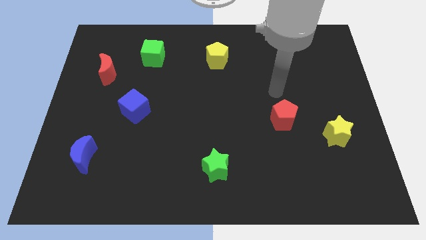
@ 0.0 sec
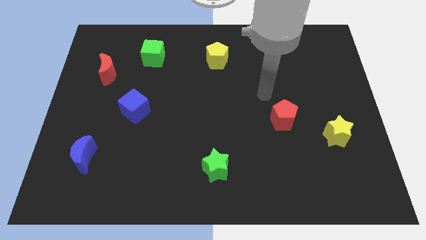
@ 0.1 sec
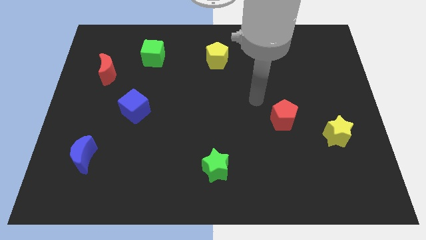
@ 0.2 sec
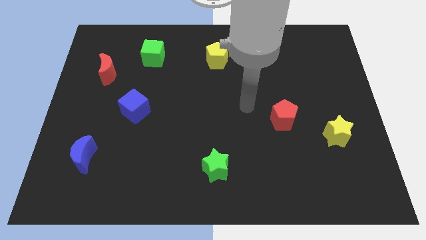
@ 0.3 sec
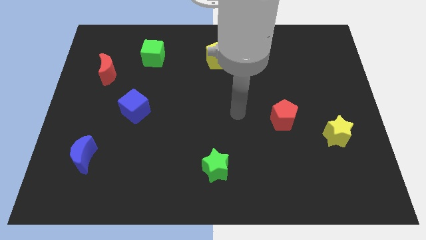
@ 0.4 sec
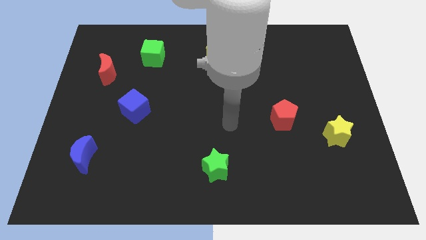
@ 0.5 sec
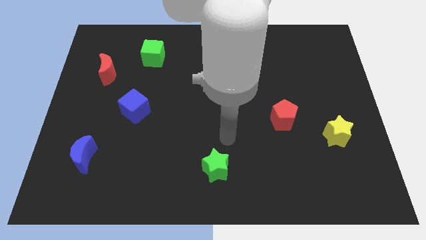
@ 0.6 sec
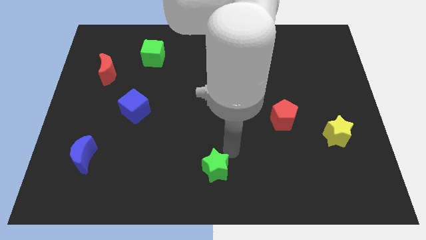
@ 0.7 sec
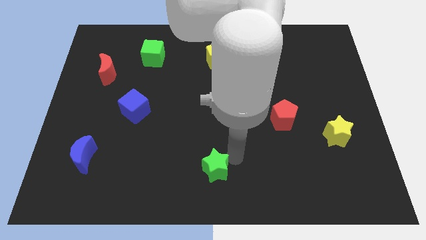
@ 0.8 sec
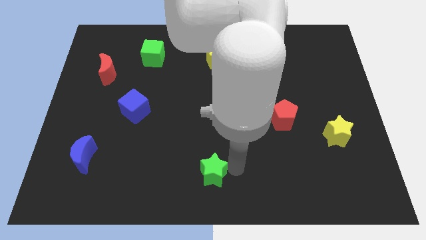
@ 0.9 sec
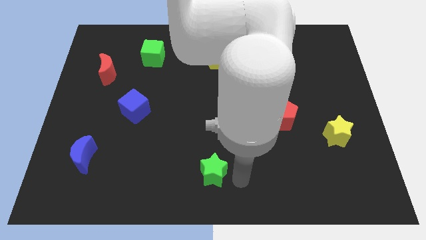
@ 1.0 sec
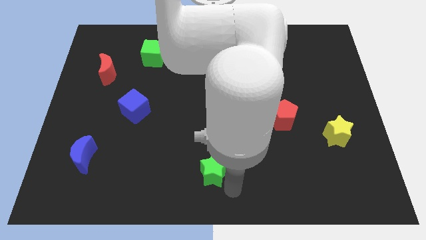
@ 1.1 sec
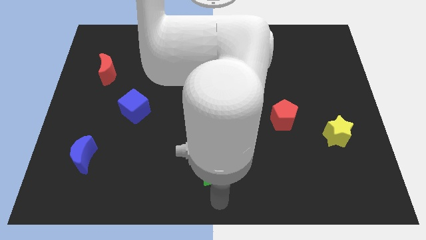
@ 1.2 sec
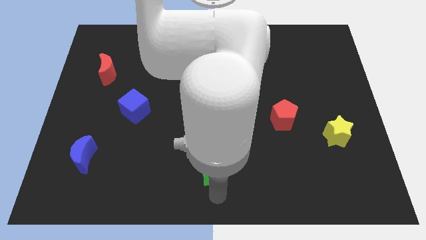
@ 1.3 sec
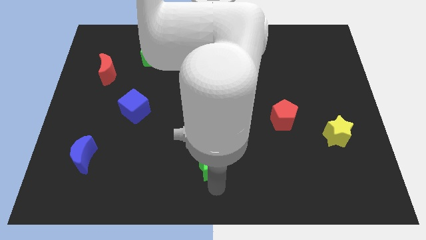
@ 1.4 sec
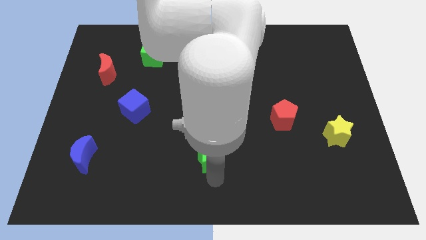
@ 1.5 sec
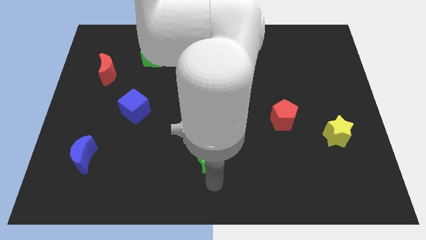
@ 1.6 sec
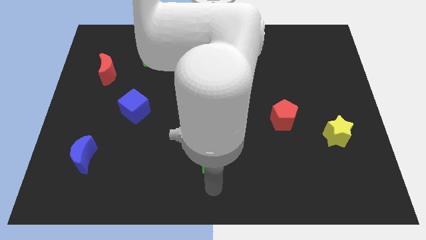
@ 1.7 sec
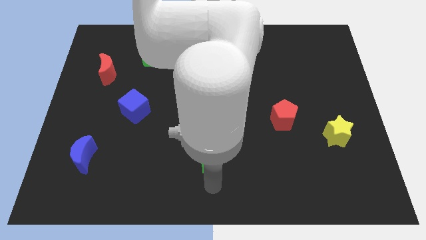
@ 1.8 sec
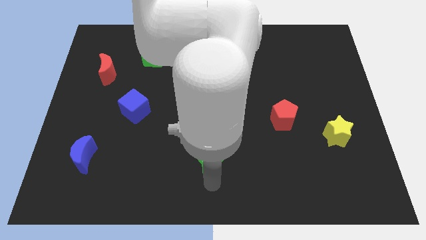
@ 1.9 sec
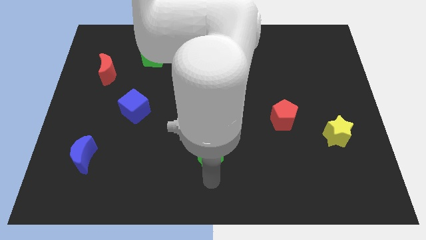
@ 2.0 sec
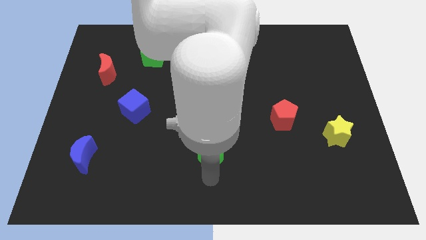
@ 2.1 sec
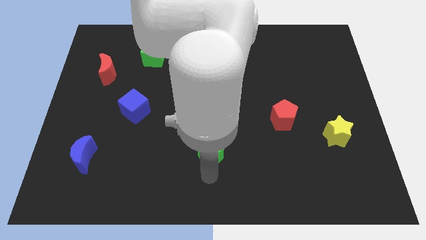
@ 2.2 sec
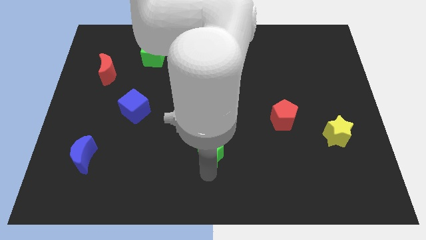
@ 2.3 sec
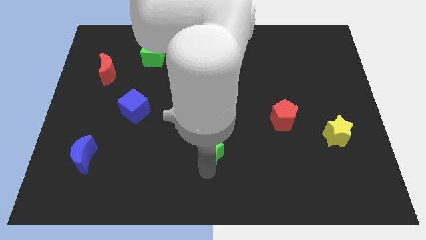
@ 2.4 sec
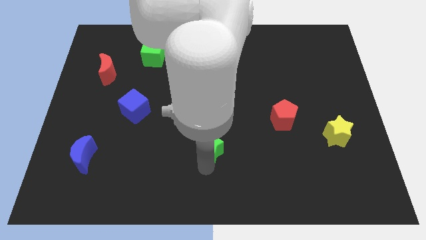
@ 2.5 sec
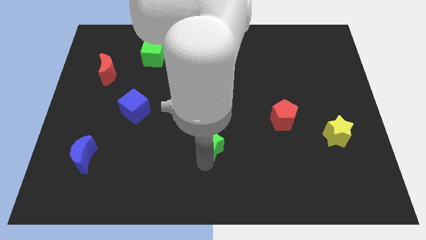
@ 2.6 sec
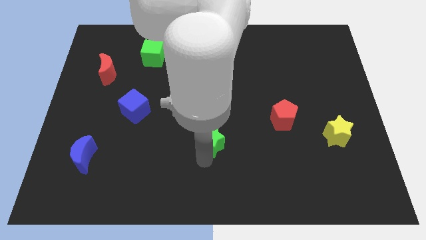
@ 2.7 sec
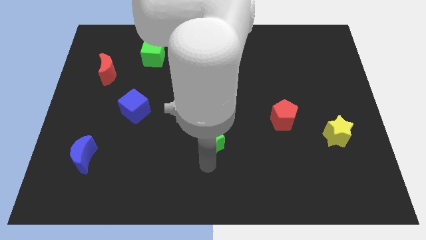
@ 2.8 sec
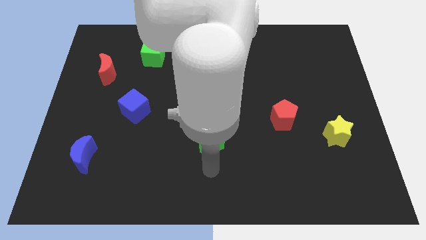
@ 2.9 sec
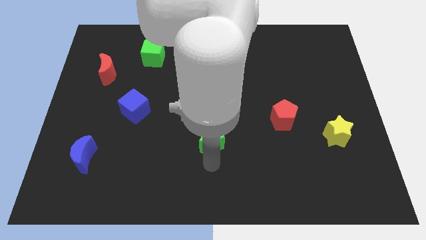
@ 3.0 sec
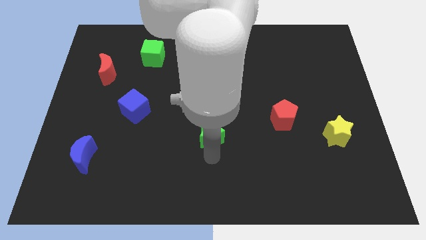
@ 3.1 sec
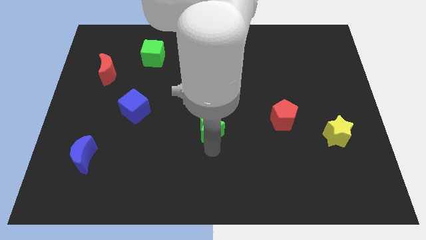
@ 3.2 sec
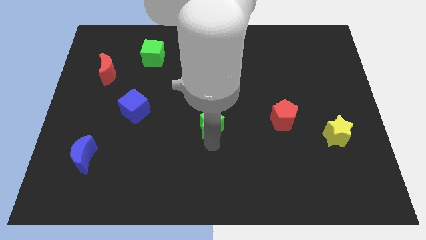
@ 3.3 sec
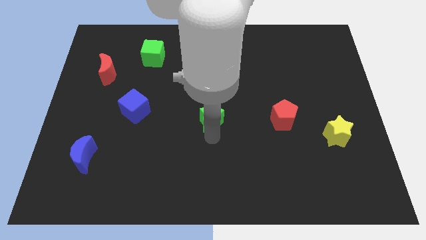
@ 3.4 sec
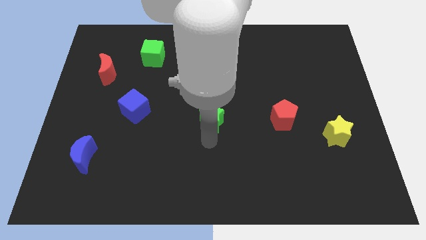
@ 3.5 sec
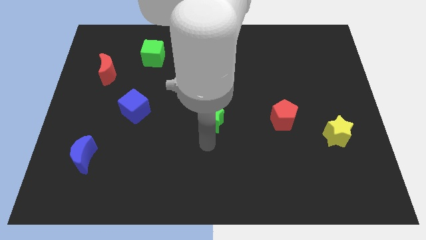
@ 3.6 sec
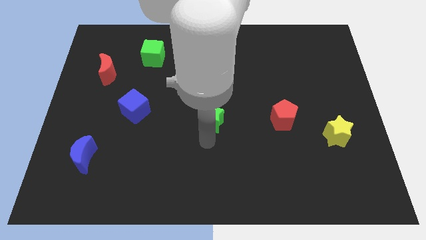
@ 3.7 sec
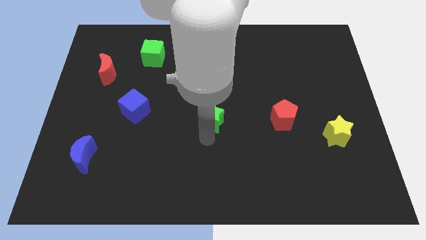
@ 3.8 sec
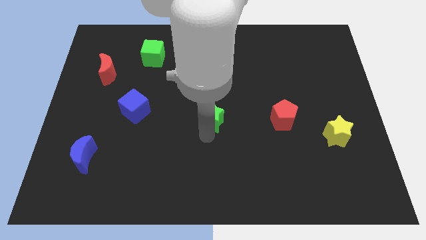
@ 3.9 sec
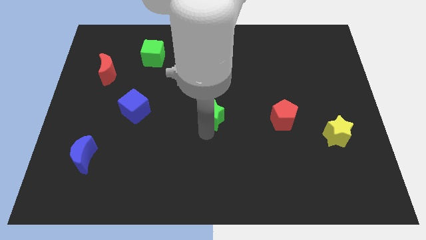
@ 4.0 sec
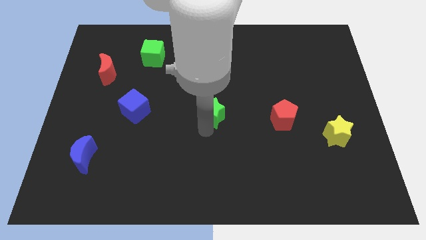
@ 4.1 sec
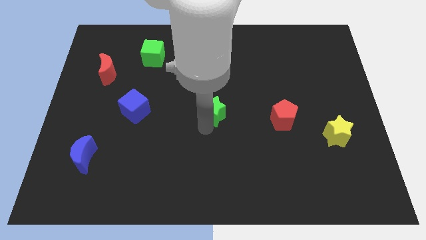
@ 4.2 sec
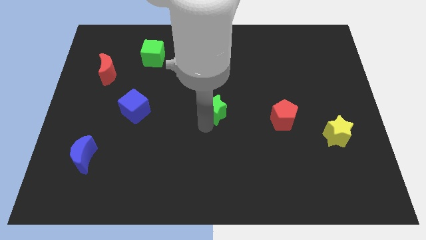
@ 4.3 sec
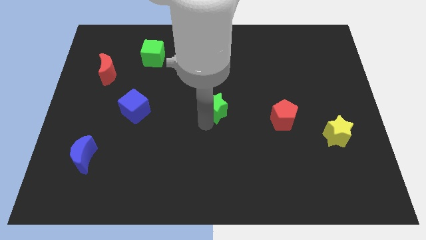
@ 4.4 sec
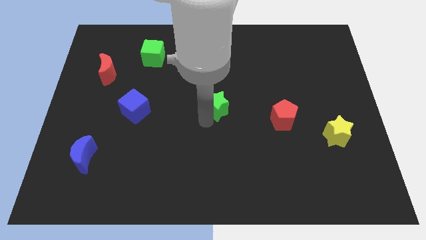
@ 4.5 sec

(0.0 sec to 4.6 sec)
move the green star to the bottom of the yellow pentagon

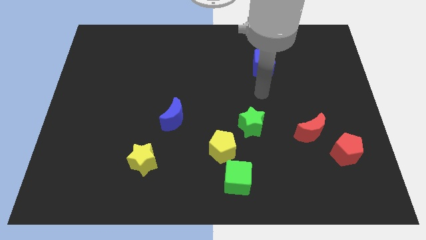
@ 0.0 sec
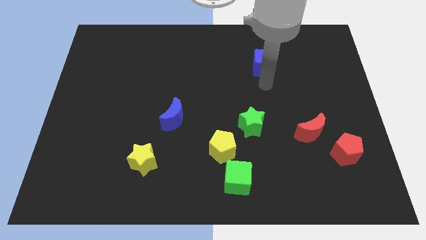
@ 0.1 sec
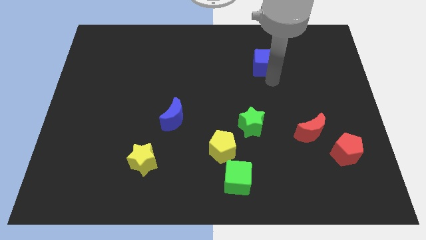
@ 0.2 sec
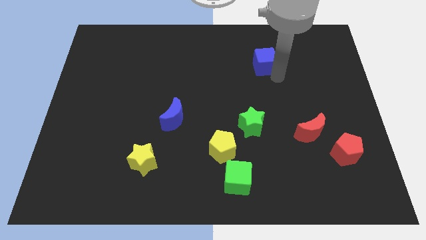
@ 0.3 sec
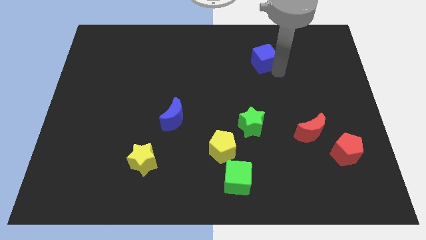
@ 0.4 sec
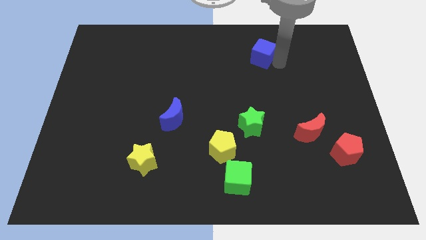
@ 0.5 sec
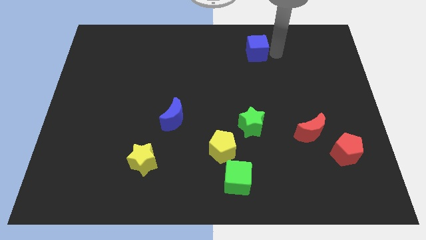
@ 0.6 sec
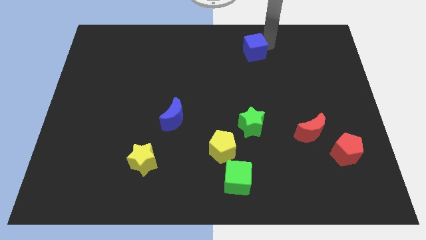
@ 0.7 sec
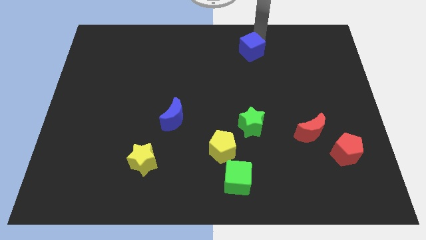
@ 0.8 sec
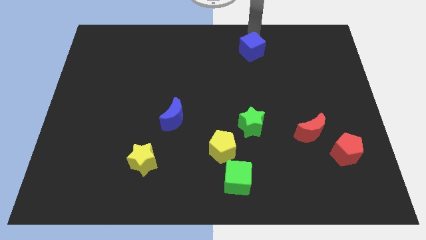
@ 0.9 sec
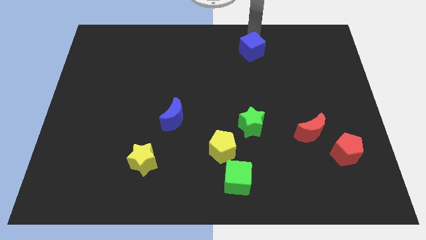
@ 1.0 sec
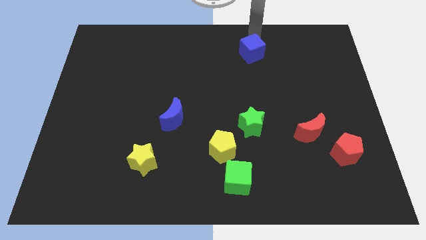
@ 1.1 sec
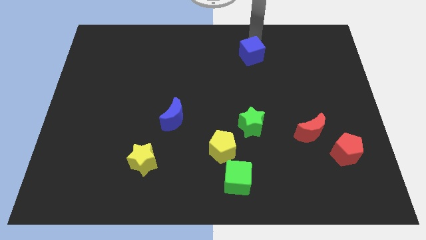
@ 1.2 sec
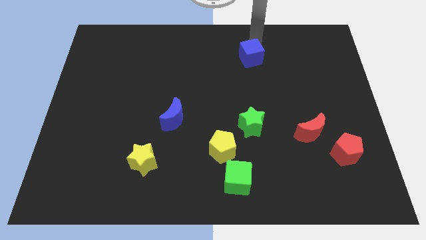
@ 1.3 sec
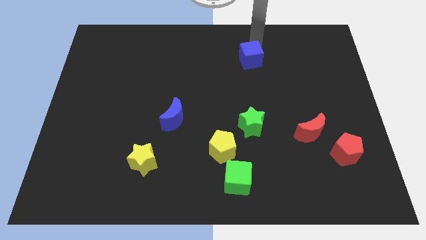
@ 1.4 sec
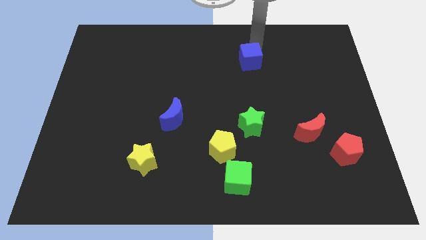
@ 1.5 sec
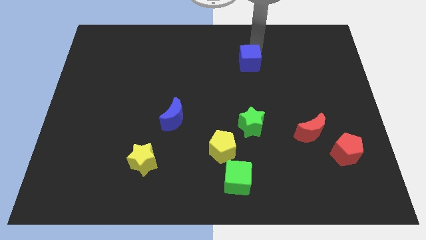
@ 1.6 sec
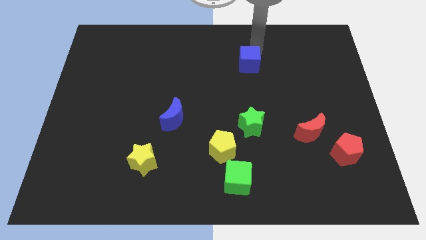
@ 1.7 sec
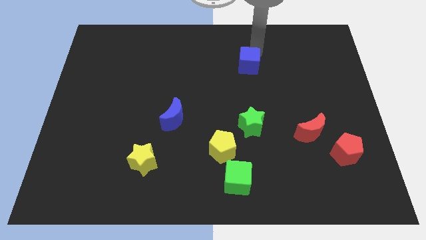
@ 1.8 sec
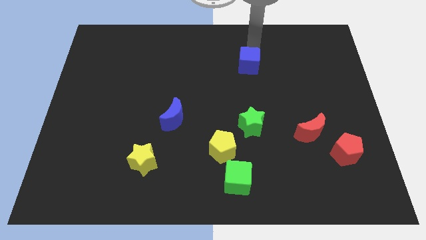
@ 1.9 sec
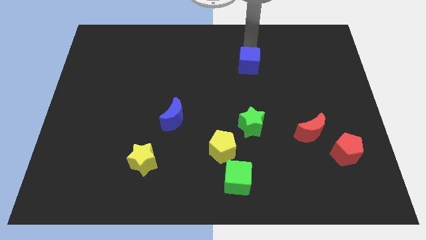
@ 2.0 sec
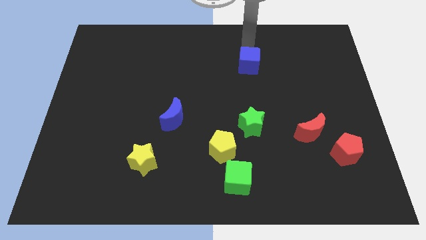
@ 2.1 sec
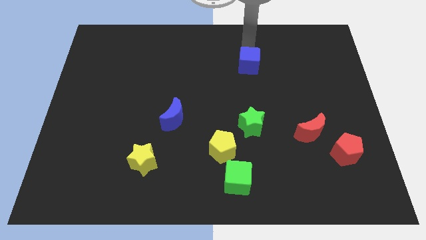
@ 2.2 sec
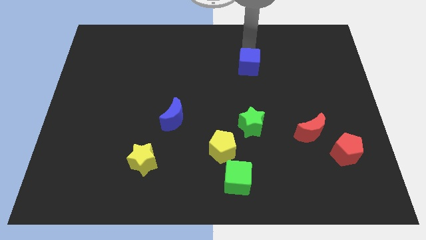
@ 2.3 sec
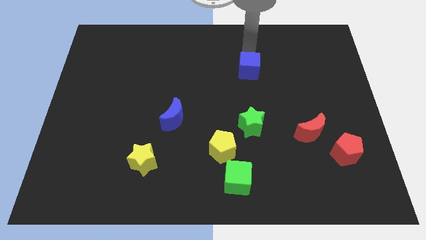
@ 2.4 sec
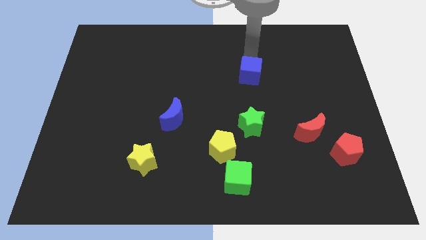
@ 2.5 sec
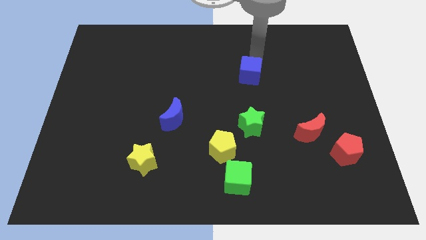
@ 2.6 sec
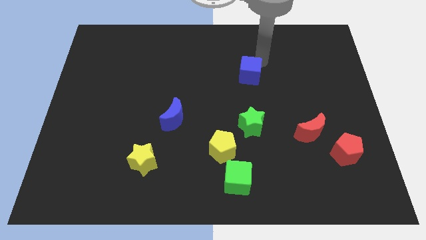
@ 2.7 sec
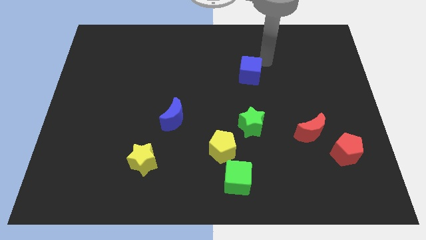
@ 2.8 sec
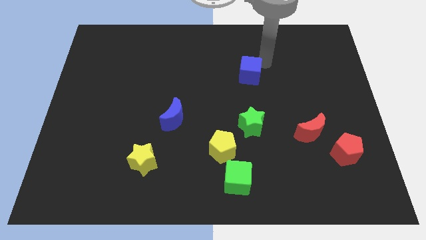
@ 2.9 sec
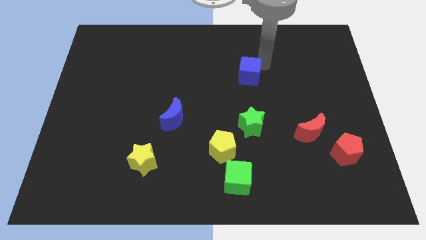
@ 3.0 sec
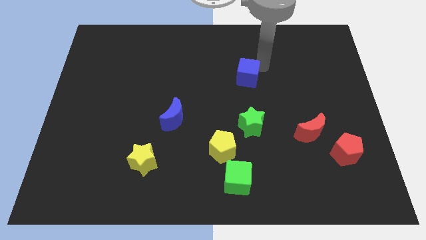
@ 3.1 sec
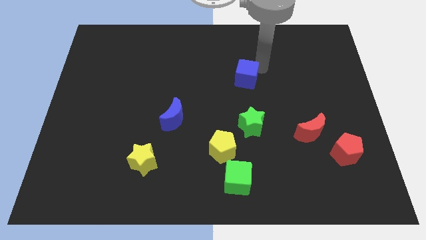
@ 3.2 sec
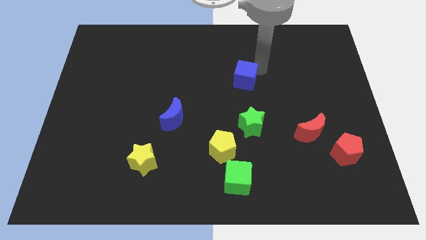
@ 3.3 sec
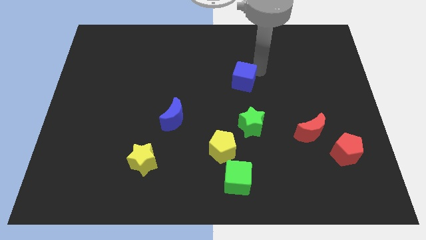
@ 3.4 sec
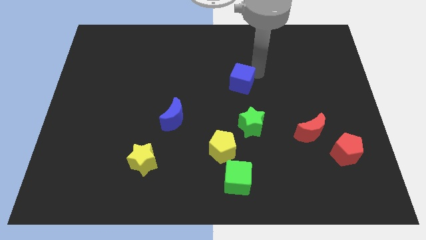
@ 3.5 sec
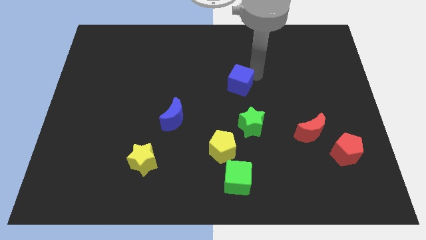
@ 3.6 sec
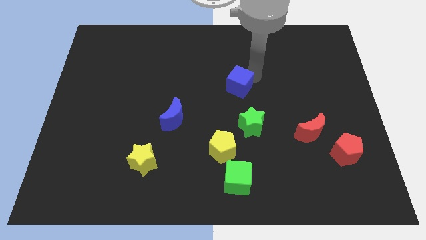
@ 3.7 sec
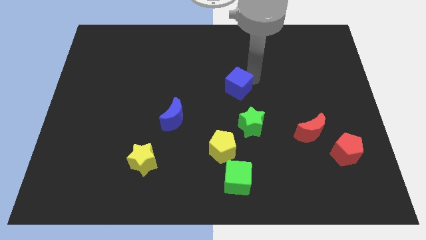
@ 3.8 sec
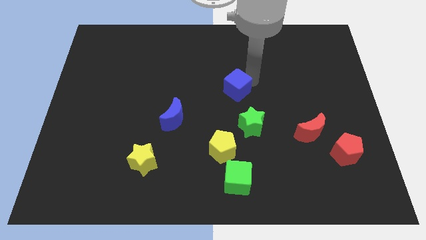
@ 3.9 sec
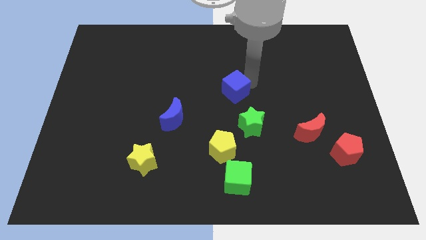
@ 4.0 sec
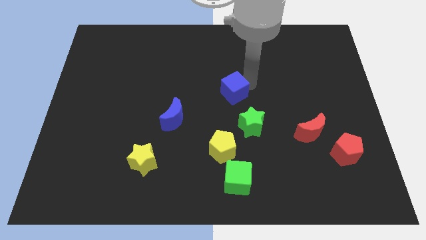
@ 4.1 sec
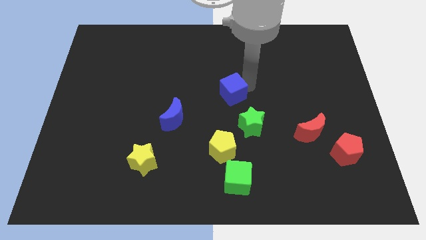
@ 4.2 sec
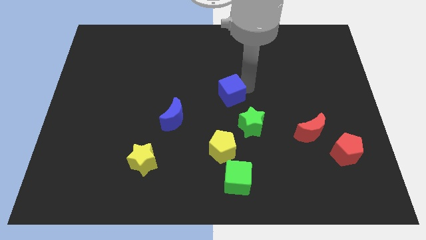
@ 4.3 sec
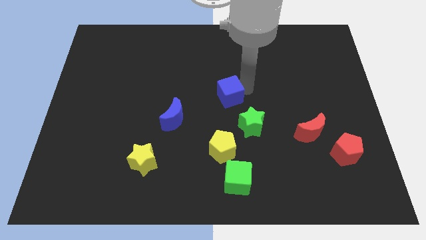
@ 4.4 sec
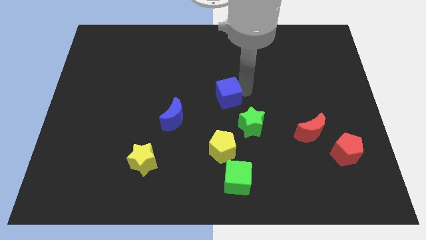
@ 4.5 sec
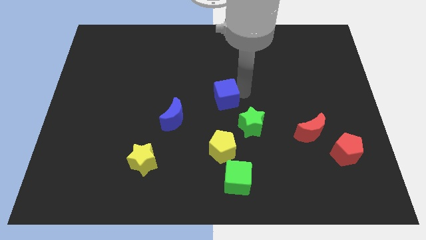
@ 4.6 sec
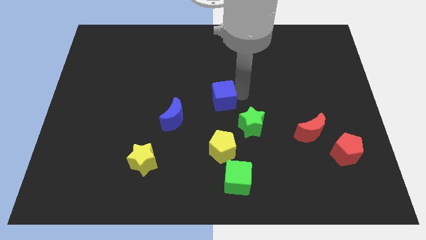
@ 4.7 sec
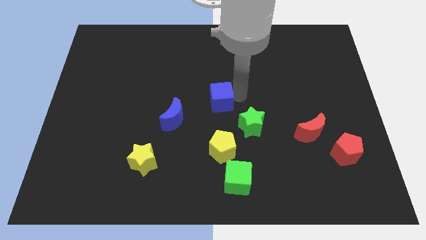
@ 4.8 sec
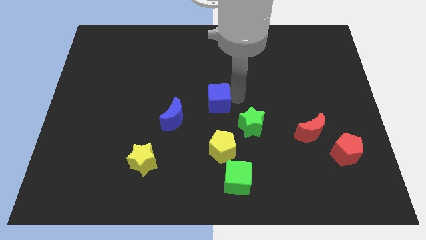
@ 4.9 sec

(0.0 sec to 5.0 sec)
slide the blue cube to the top right side of the blue moon
